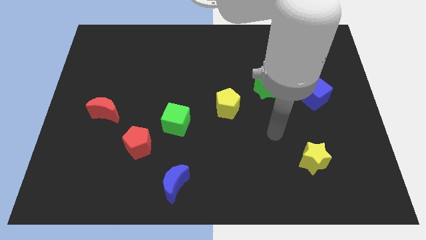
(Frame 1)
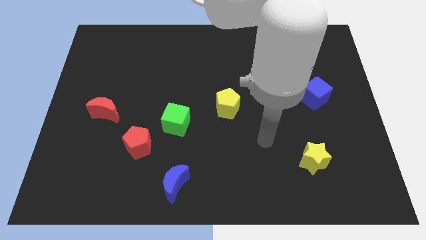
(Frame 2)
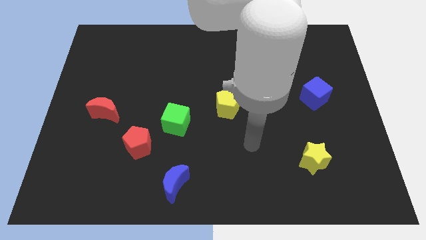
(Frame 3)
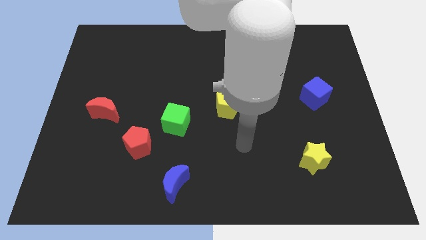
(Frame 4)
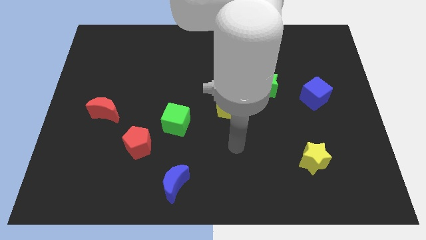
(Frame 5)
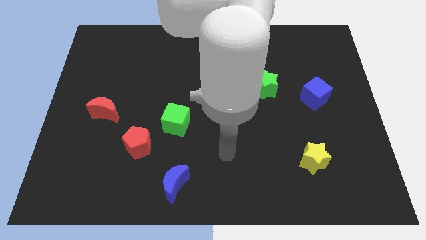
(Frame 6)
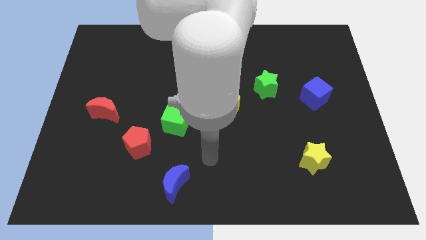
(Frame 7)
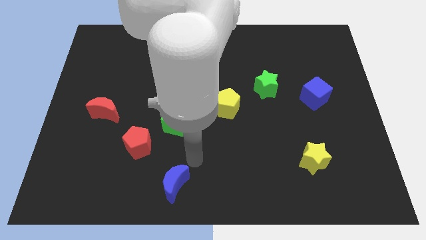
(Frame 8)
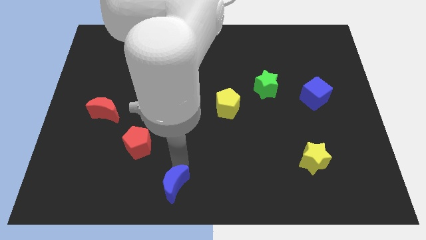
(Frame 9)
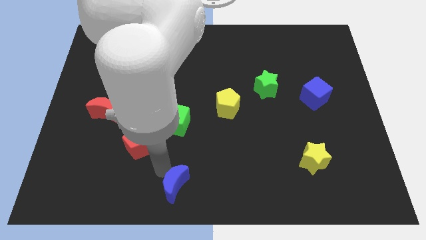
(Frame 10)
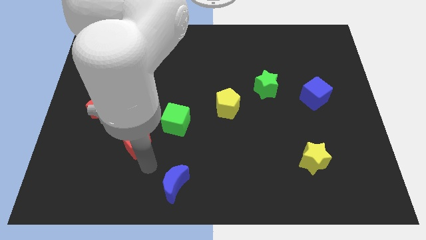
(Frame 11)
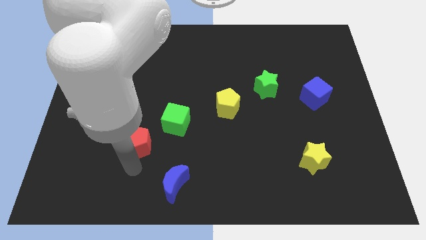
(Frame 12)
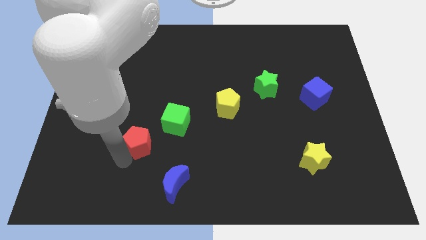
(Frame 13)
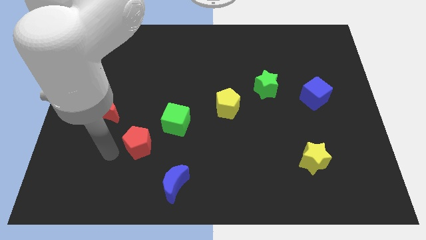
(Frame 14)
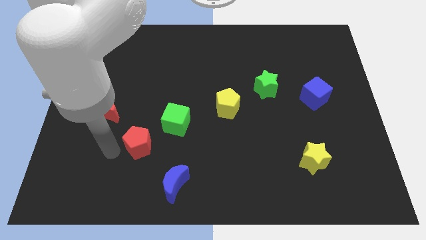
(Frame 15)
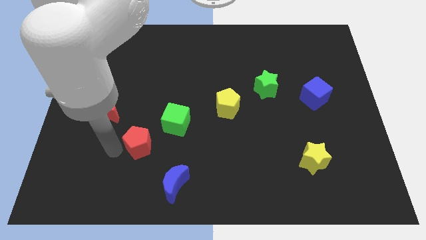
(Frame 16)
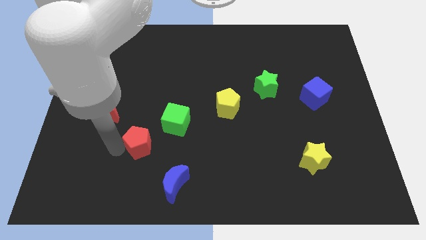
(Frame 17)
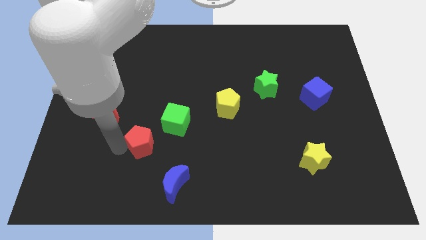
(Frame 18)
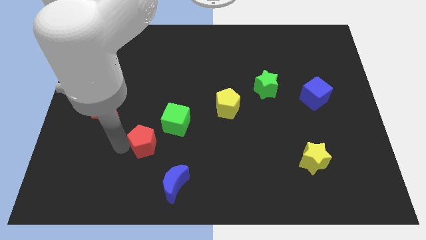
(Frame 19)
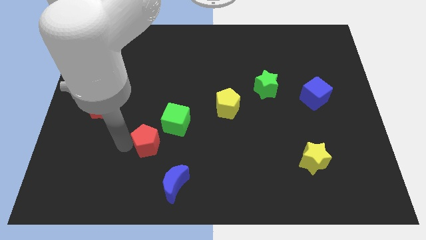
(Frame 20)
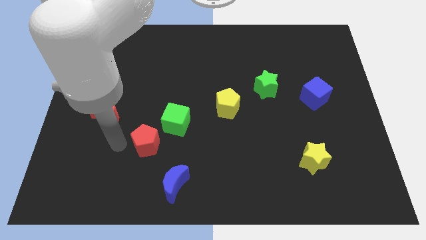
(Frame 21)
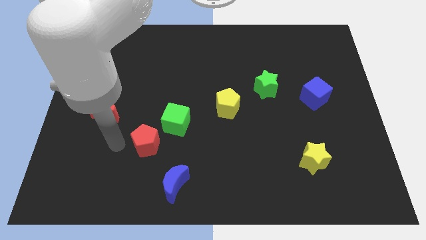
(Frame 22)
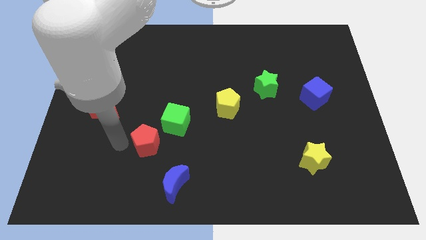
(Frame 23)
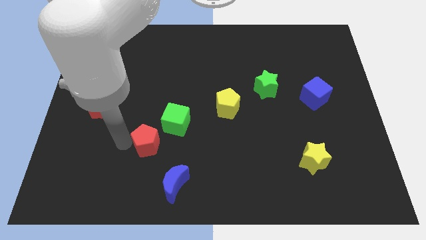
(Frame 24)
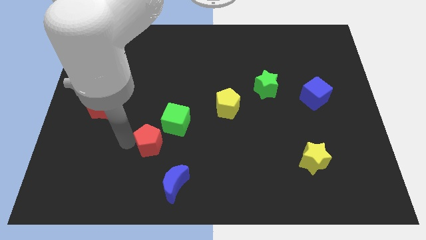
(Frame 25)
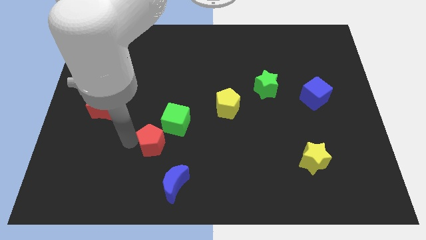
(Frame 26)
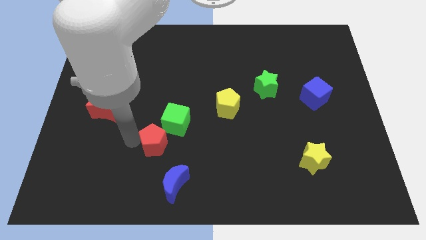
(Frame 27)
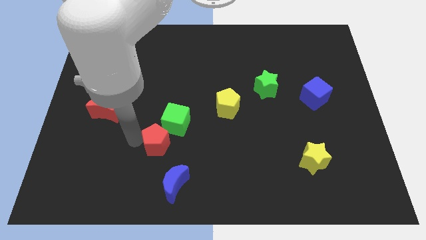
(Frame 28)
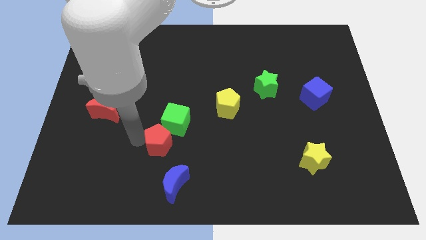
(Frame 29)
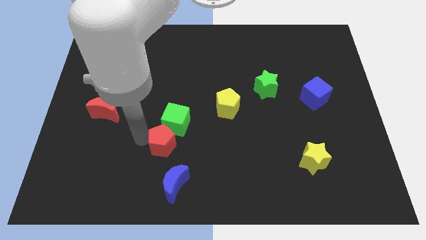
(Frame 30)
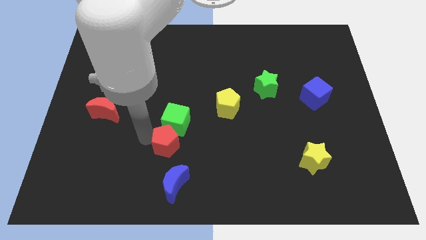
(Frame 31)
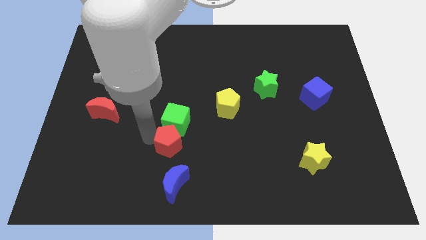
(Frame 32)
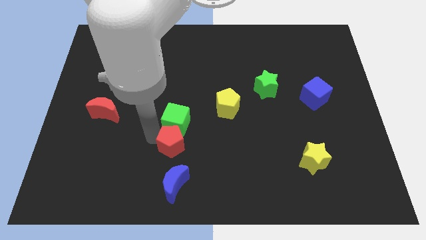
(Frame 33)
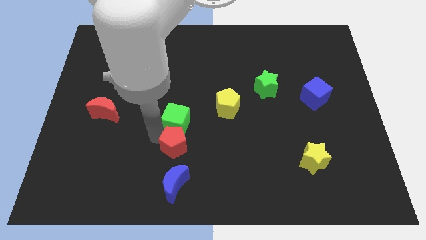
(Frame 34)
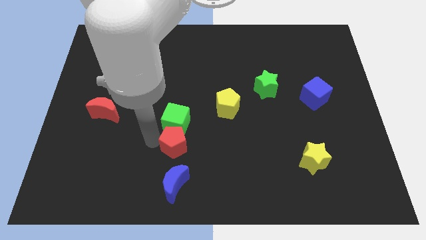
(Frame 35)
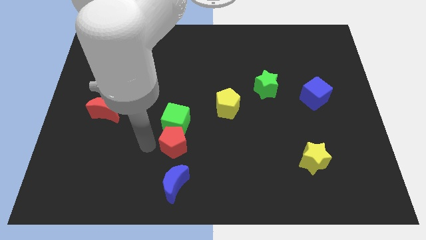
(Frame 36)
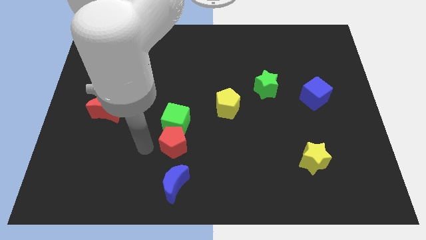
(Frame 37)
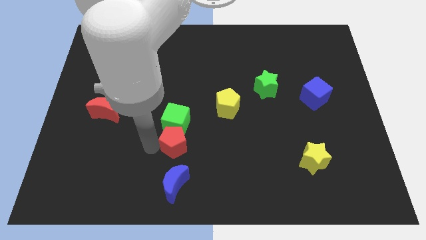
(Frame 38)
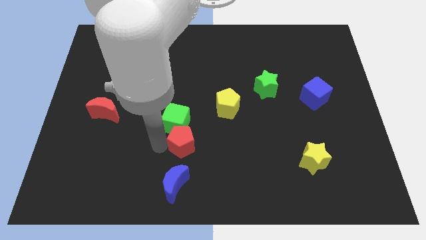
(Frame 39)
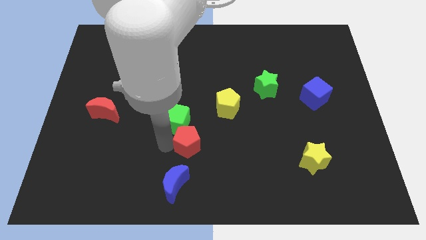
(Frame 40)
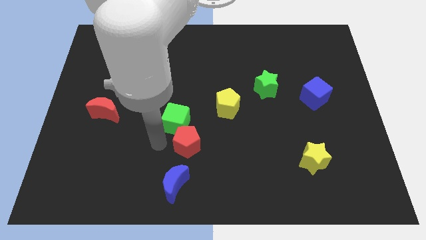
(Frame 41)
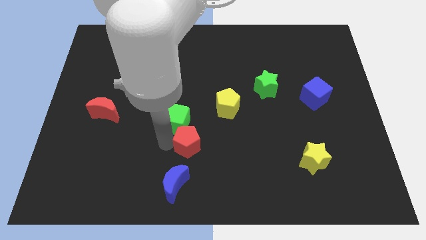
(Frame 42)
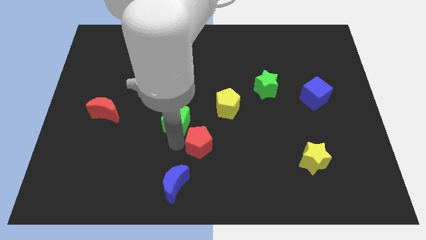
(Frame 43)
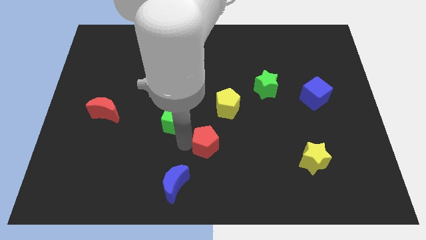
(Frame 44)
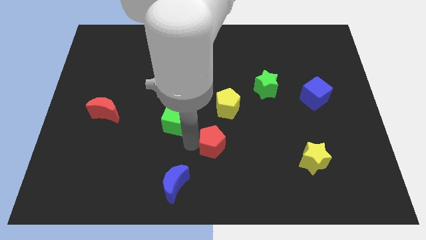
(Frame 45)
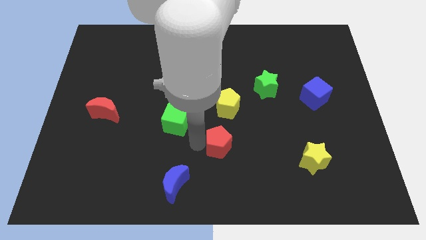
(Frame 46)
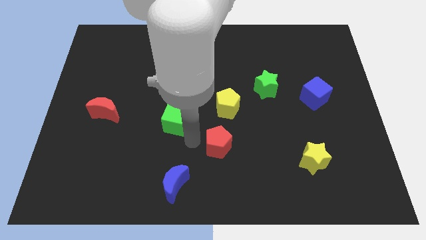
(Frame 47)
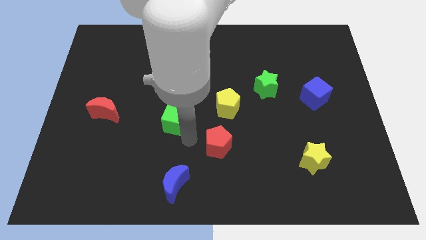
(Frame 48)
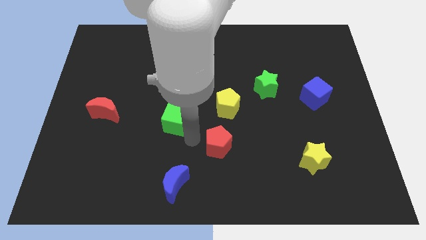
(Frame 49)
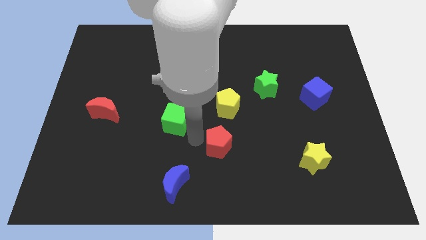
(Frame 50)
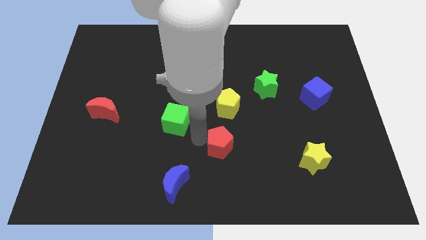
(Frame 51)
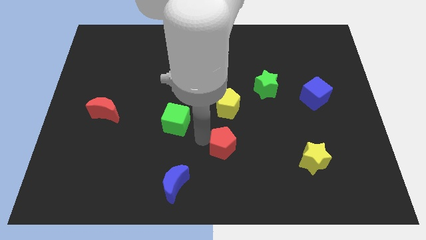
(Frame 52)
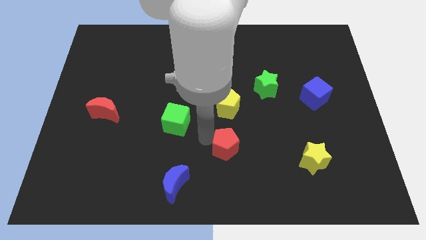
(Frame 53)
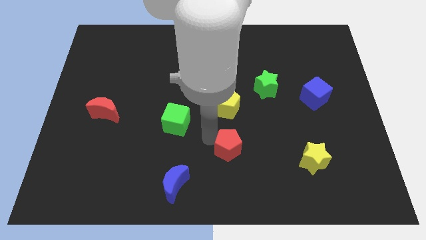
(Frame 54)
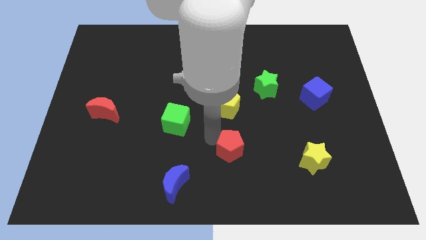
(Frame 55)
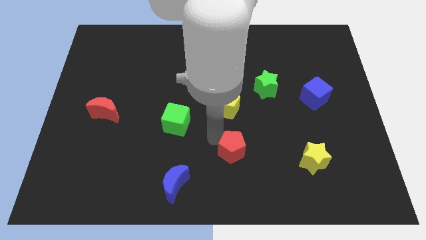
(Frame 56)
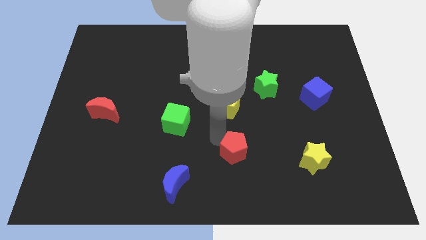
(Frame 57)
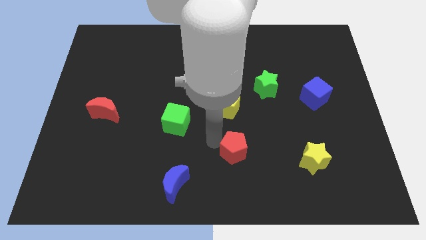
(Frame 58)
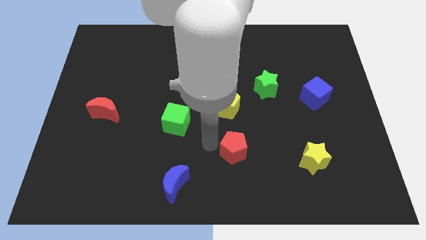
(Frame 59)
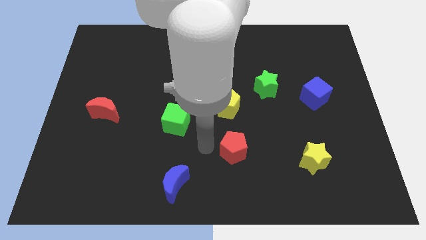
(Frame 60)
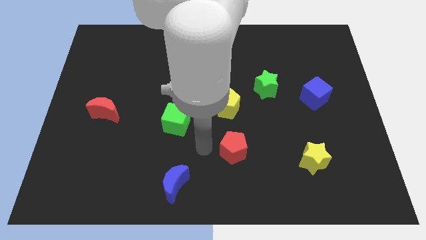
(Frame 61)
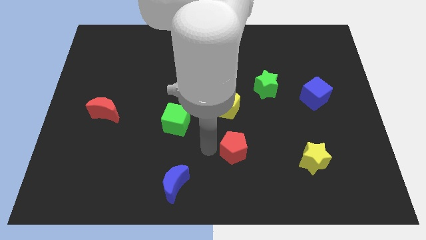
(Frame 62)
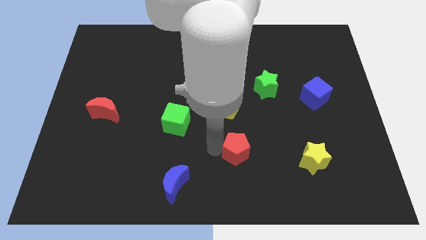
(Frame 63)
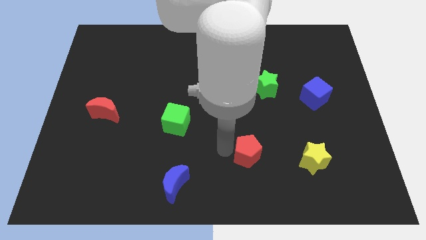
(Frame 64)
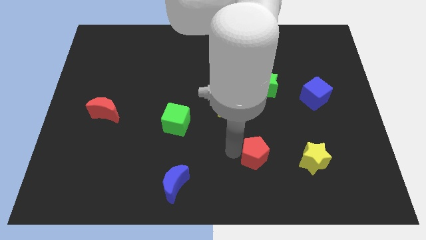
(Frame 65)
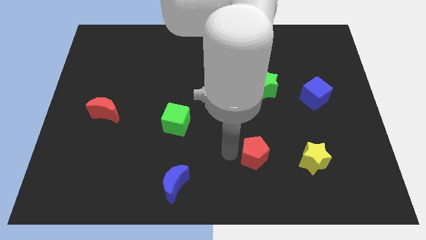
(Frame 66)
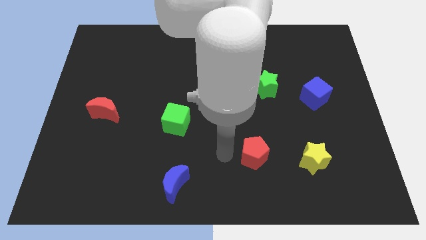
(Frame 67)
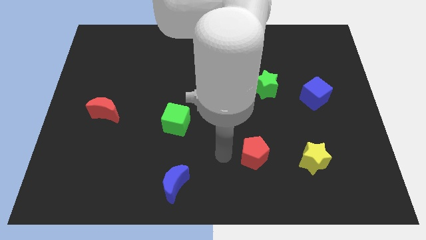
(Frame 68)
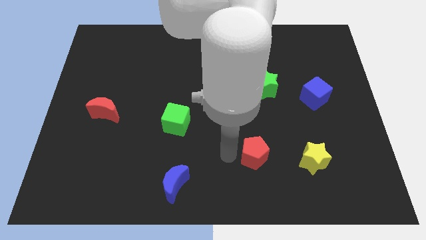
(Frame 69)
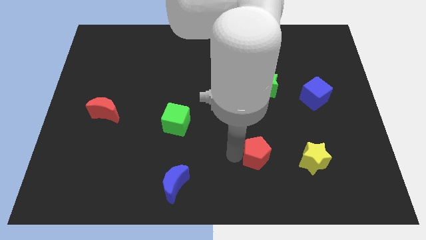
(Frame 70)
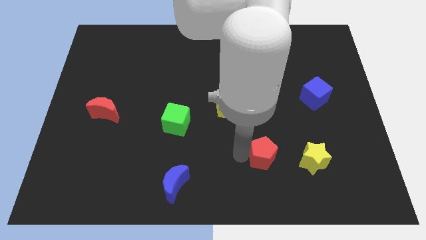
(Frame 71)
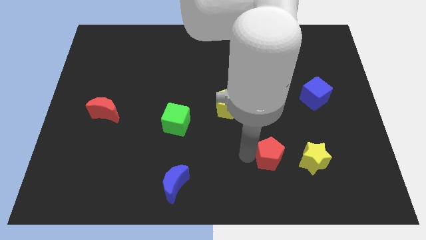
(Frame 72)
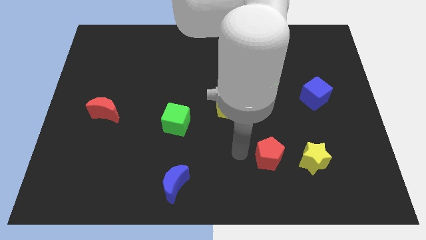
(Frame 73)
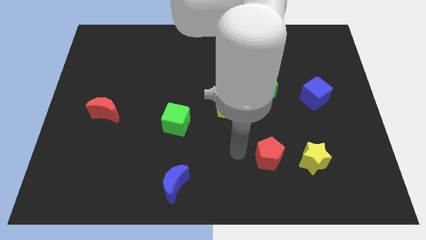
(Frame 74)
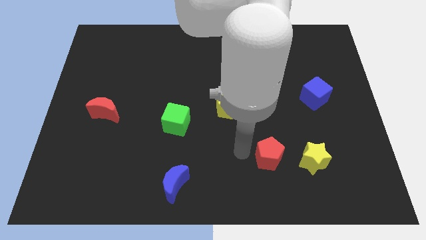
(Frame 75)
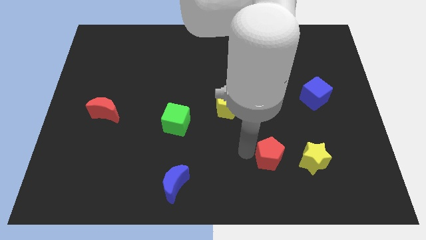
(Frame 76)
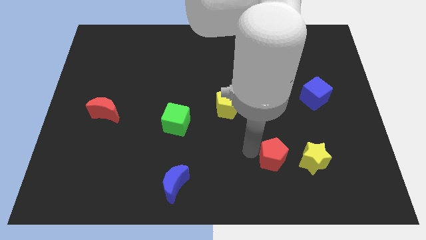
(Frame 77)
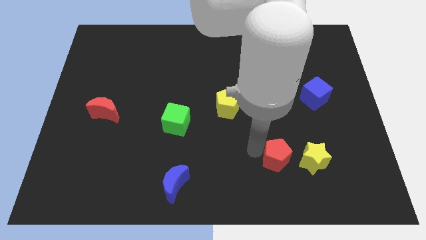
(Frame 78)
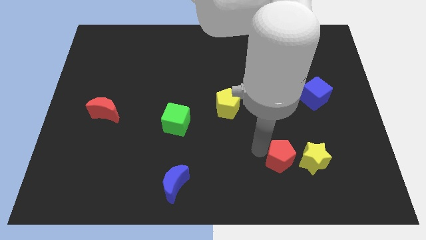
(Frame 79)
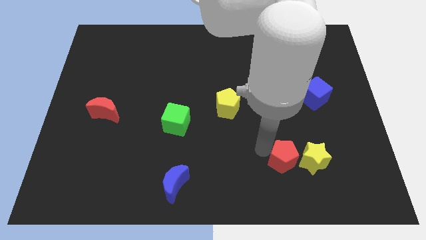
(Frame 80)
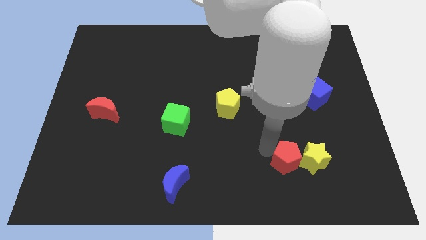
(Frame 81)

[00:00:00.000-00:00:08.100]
slide the red pentagon close to the yellow star
